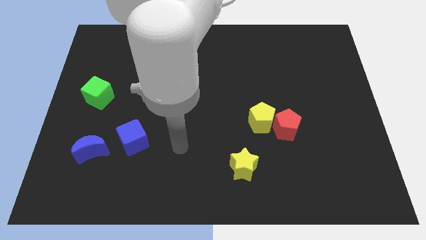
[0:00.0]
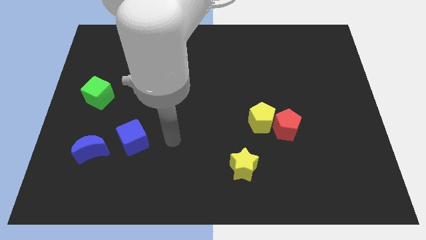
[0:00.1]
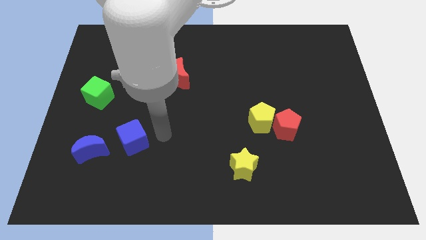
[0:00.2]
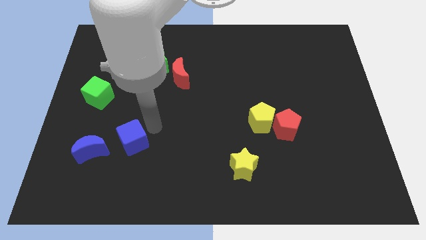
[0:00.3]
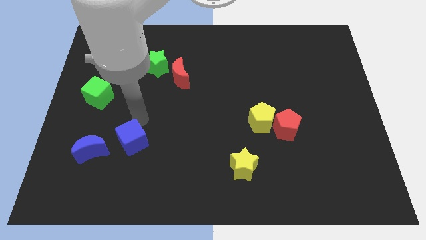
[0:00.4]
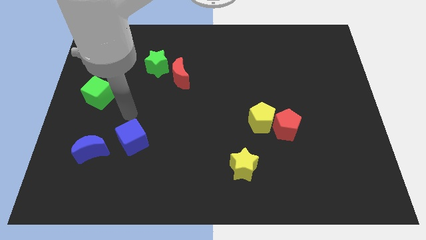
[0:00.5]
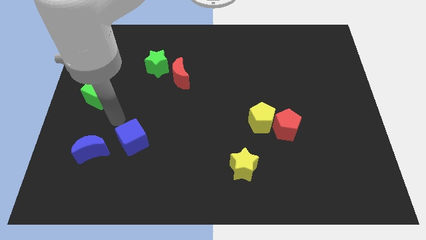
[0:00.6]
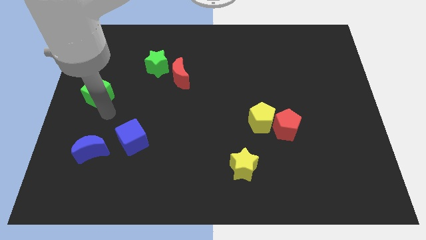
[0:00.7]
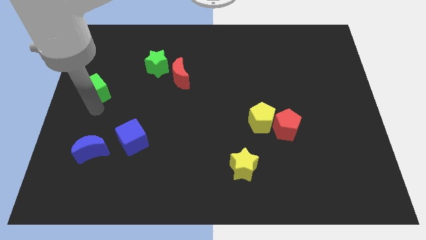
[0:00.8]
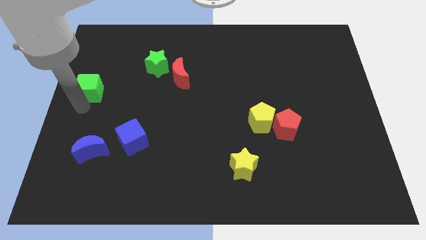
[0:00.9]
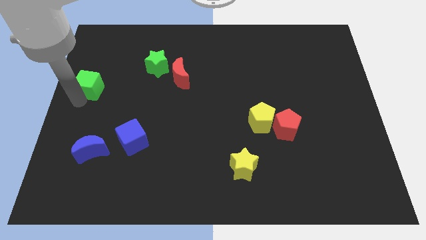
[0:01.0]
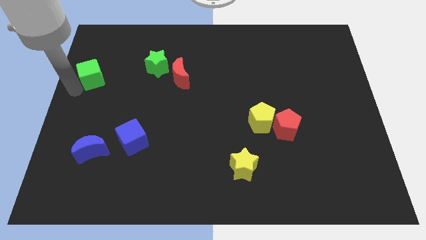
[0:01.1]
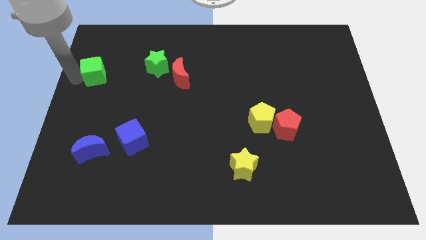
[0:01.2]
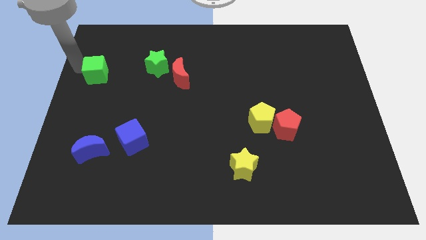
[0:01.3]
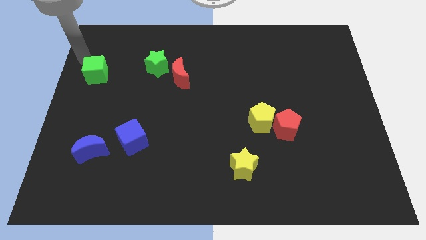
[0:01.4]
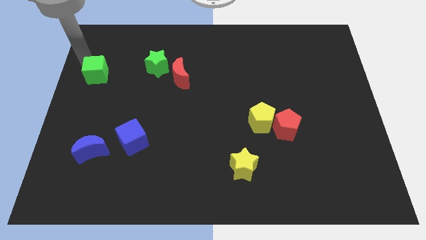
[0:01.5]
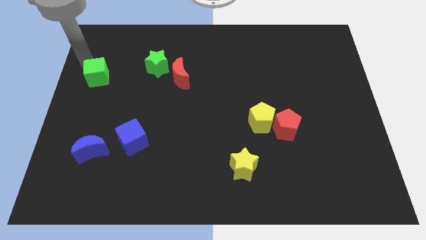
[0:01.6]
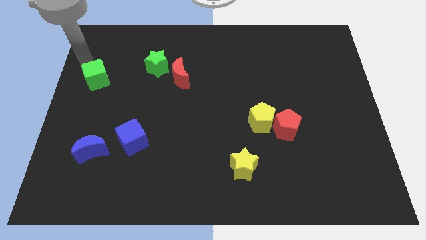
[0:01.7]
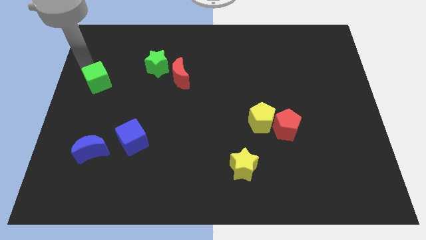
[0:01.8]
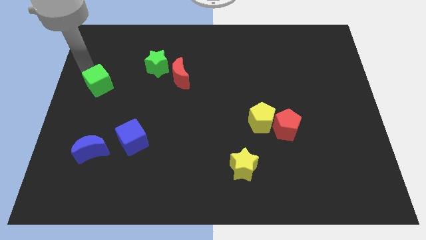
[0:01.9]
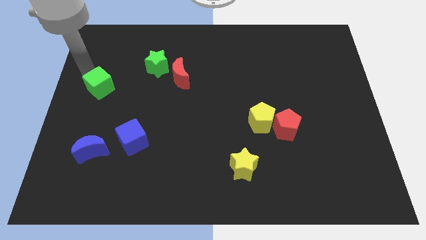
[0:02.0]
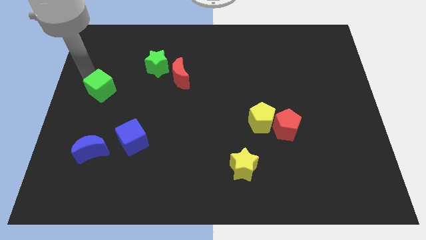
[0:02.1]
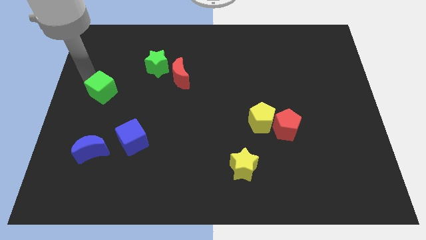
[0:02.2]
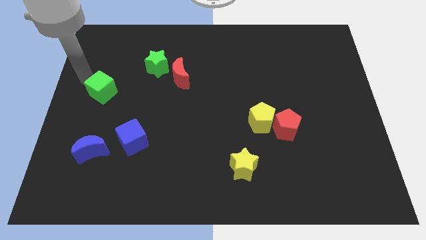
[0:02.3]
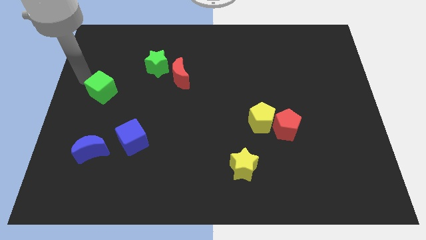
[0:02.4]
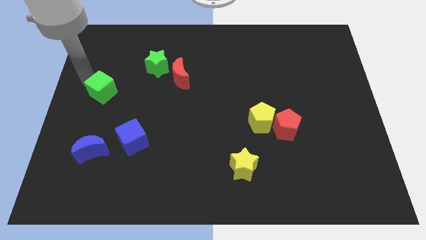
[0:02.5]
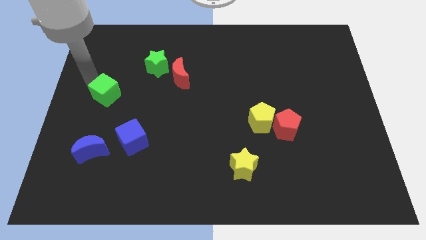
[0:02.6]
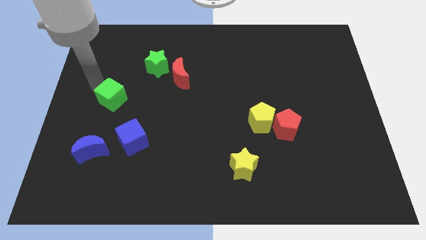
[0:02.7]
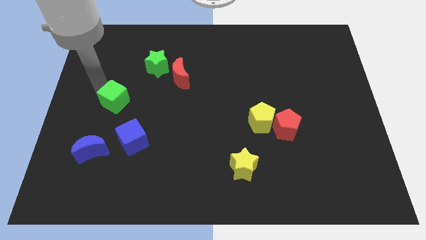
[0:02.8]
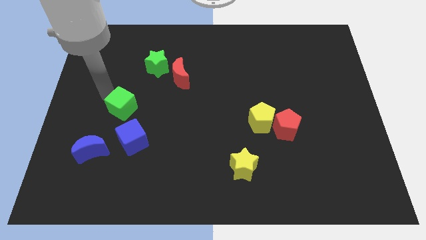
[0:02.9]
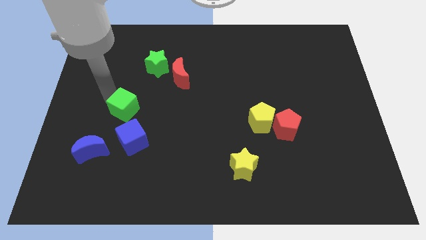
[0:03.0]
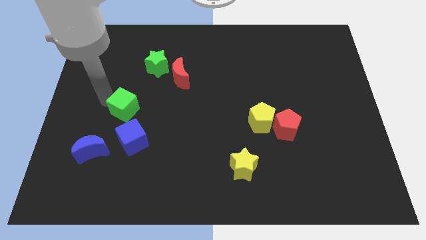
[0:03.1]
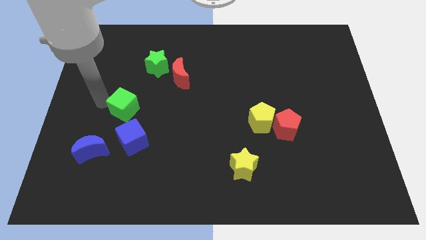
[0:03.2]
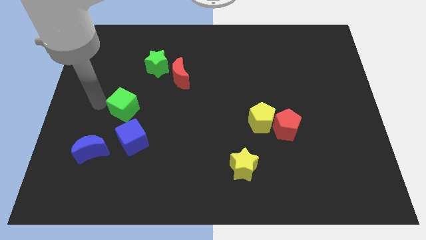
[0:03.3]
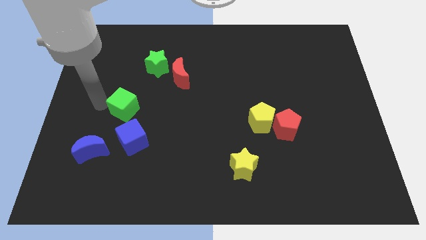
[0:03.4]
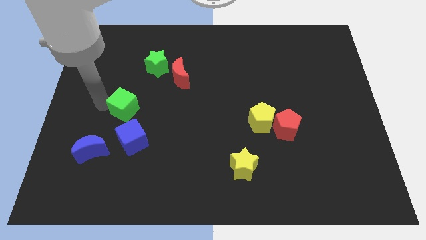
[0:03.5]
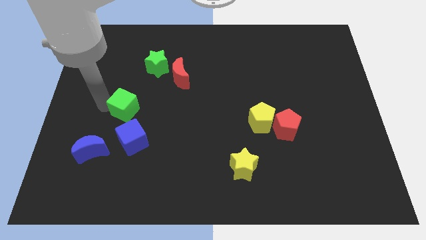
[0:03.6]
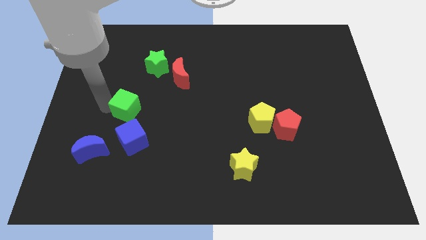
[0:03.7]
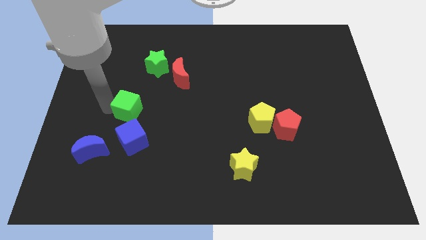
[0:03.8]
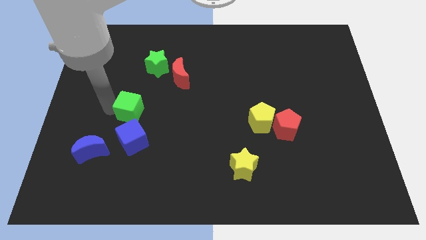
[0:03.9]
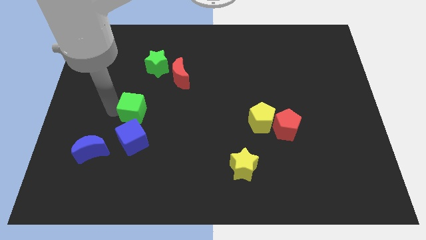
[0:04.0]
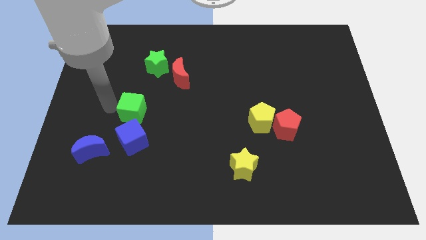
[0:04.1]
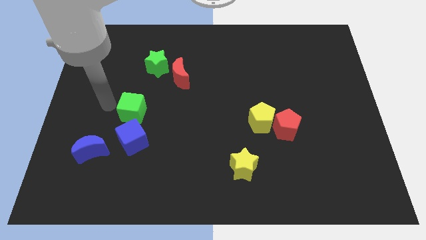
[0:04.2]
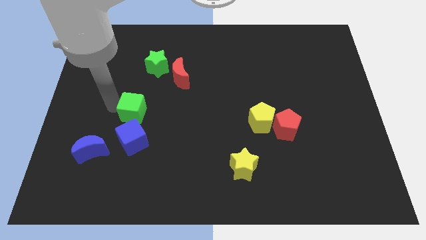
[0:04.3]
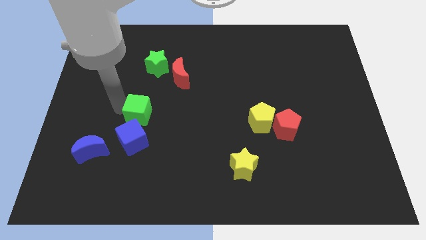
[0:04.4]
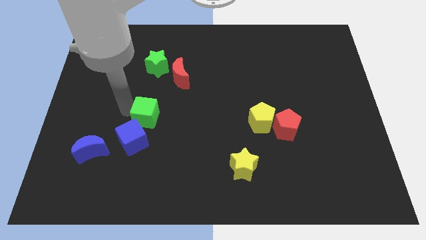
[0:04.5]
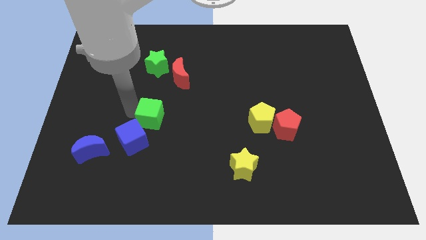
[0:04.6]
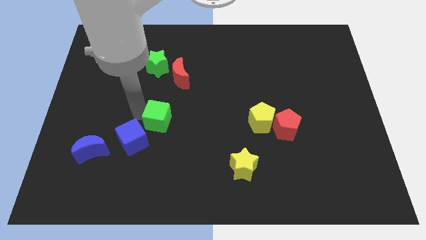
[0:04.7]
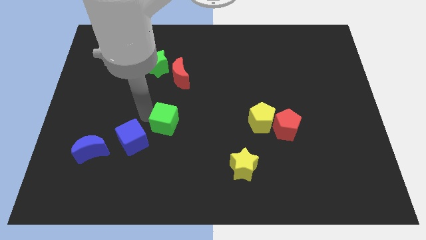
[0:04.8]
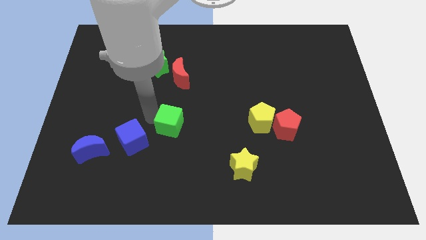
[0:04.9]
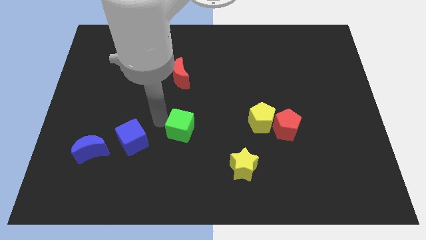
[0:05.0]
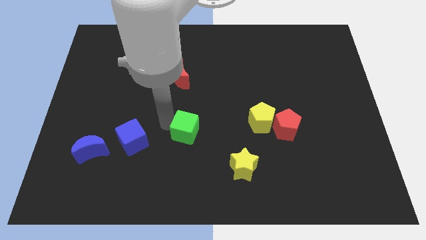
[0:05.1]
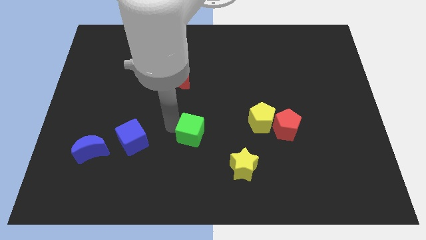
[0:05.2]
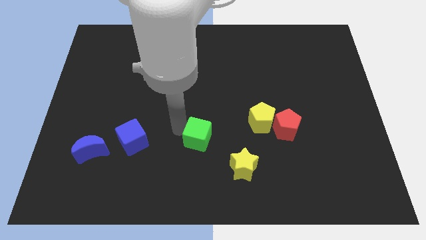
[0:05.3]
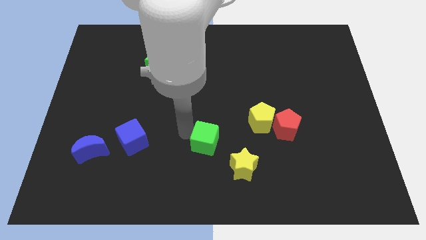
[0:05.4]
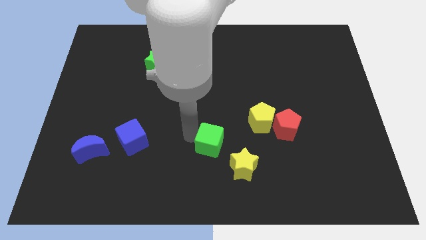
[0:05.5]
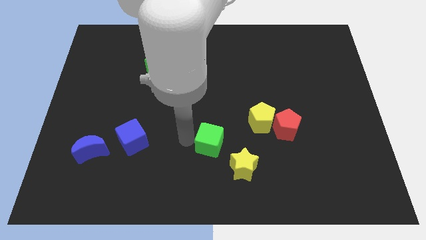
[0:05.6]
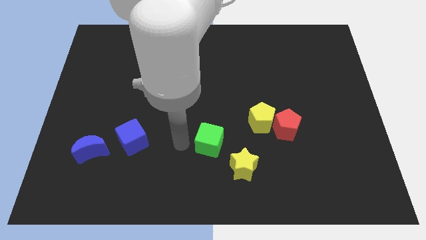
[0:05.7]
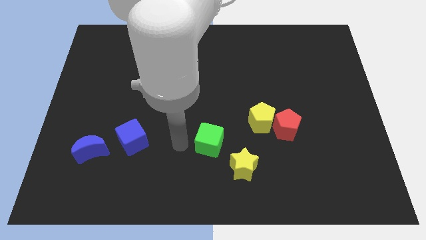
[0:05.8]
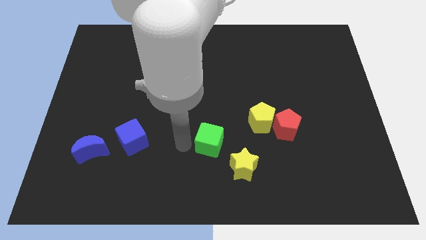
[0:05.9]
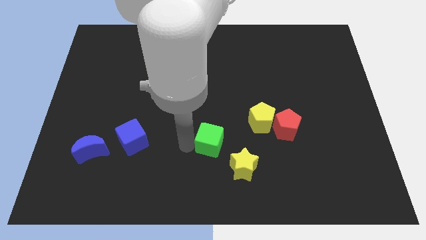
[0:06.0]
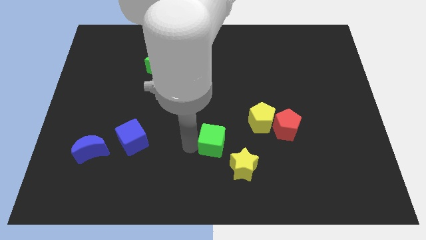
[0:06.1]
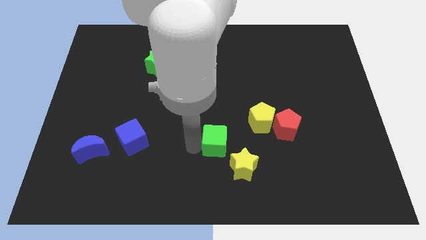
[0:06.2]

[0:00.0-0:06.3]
push the green cube to the bottom left side of the yellow pentagon

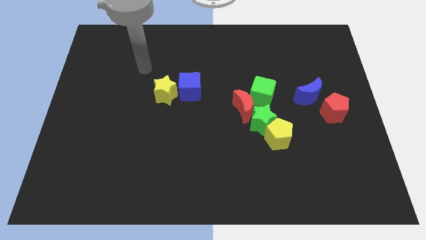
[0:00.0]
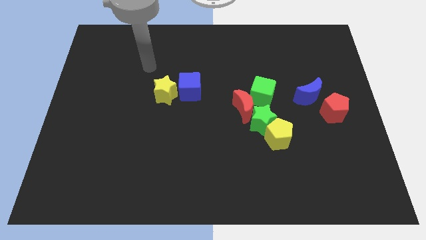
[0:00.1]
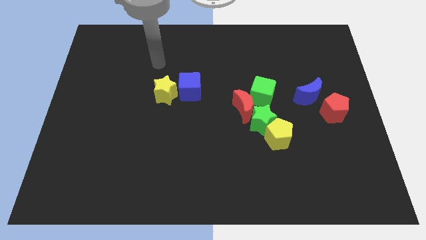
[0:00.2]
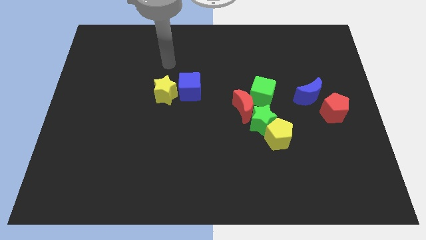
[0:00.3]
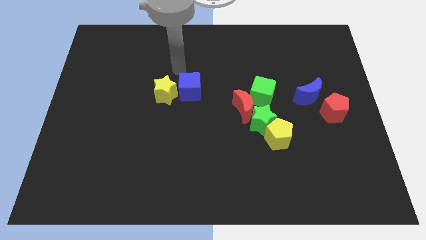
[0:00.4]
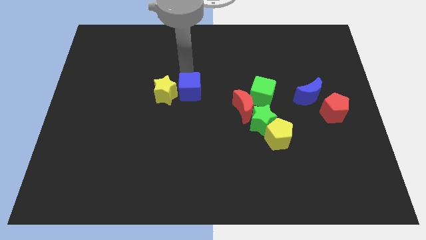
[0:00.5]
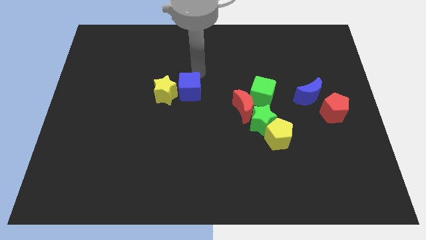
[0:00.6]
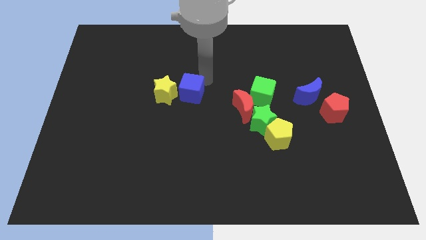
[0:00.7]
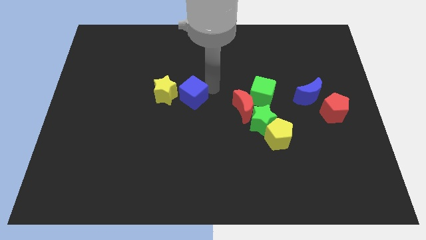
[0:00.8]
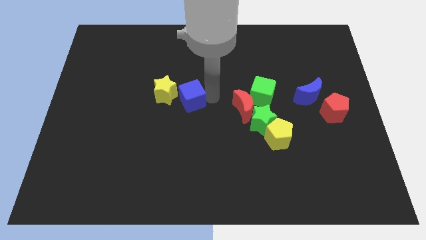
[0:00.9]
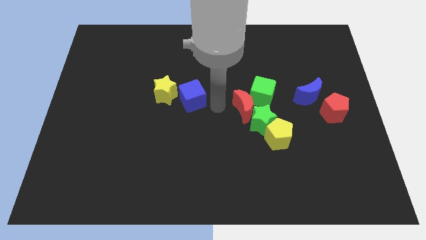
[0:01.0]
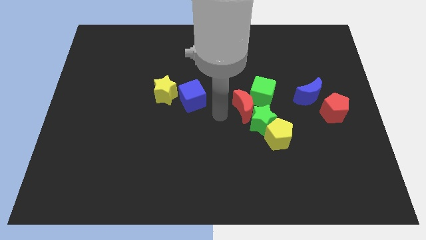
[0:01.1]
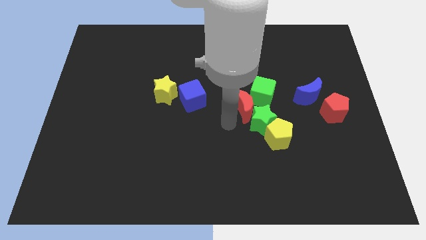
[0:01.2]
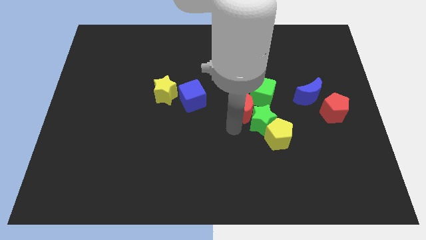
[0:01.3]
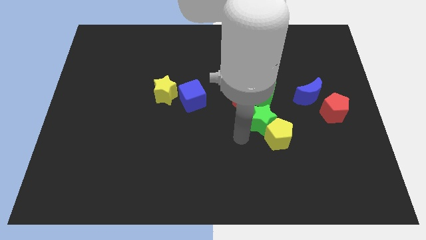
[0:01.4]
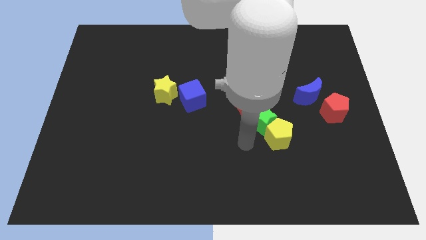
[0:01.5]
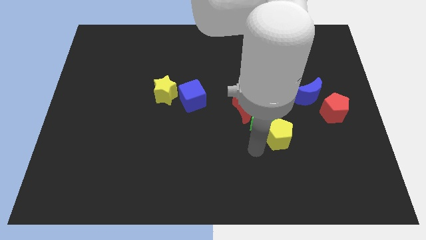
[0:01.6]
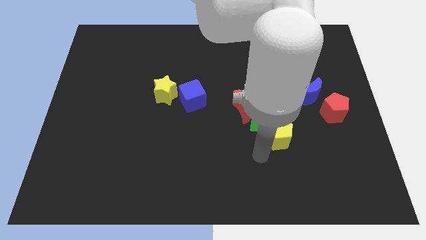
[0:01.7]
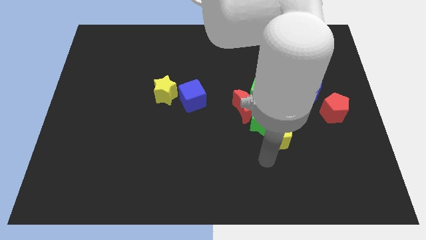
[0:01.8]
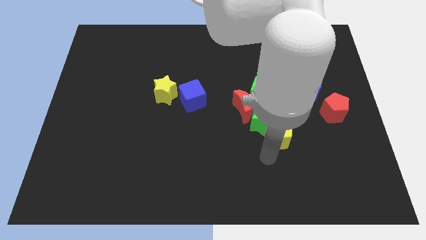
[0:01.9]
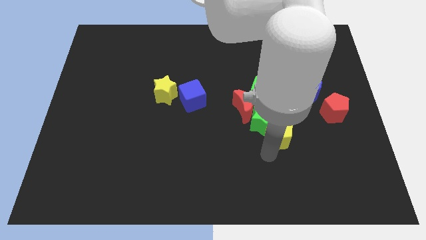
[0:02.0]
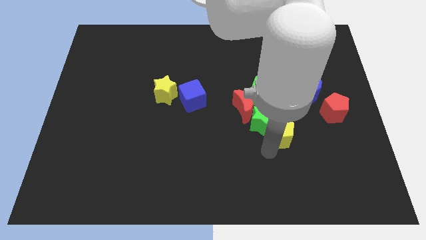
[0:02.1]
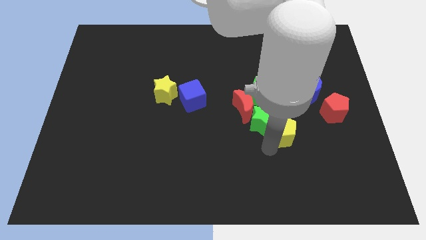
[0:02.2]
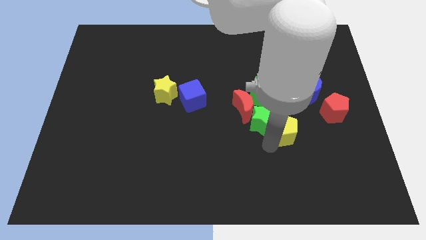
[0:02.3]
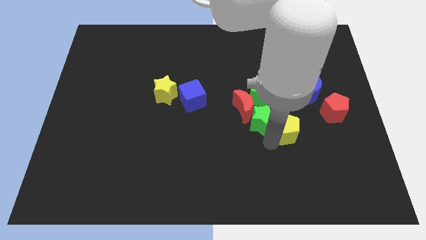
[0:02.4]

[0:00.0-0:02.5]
put the yellow pentagon to the bottom left of the blue moon
